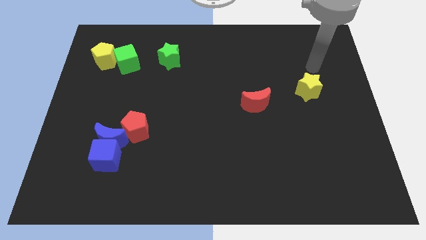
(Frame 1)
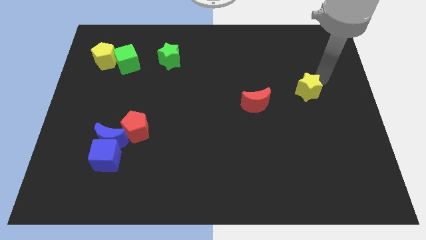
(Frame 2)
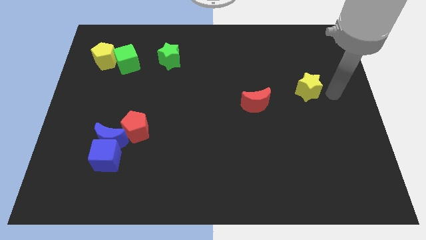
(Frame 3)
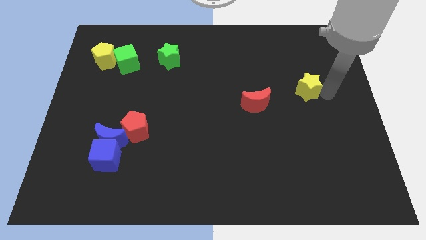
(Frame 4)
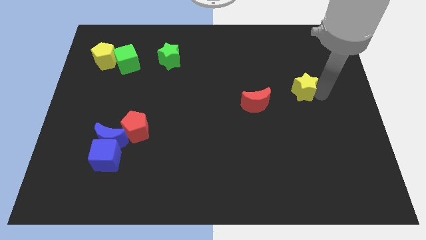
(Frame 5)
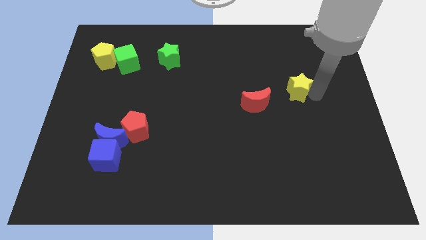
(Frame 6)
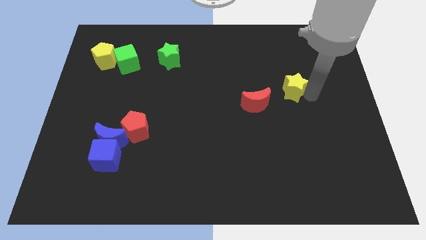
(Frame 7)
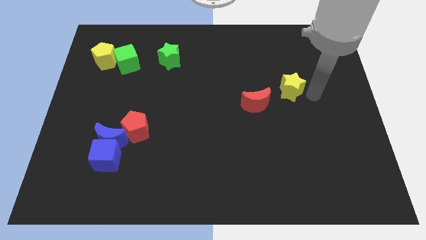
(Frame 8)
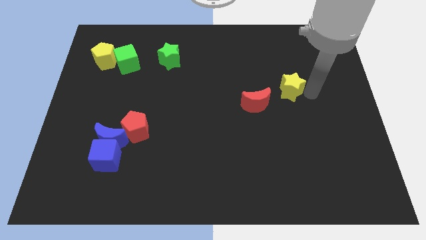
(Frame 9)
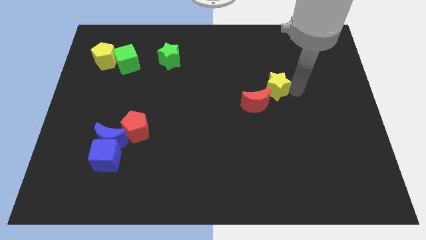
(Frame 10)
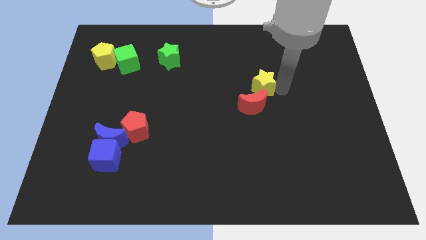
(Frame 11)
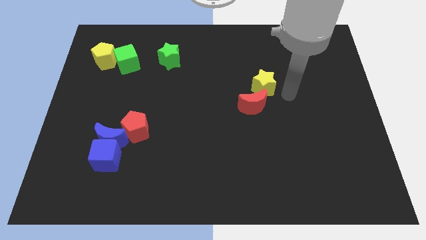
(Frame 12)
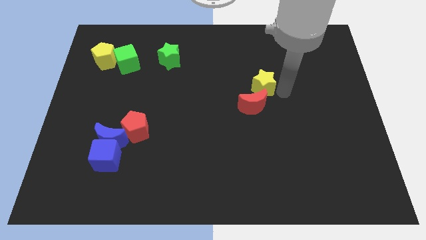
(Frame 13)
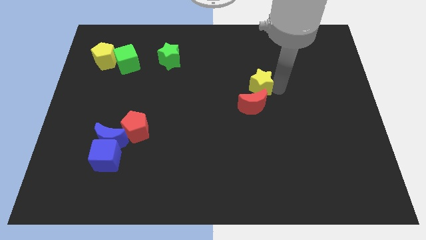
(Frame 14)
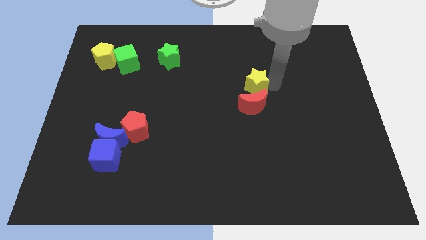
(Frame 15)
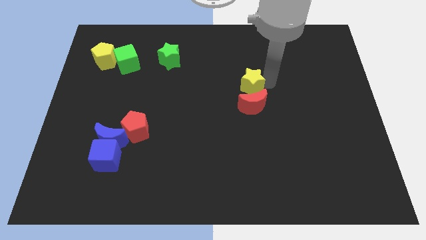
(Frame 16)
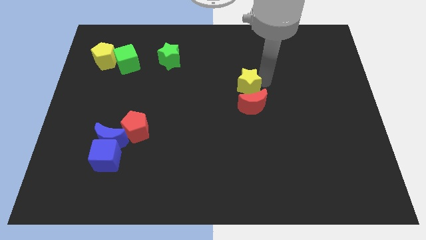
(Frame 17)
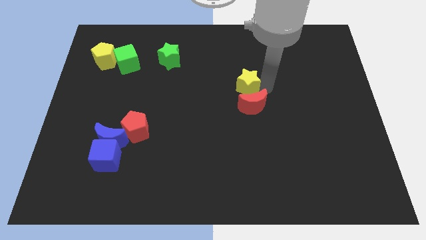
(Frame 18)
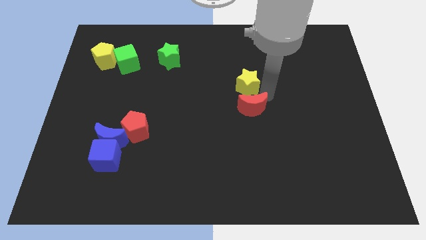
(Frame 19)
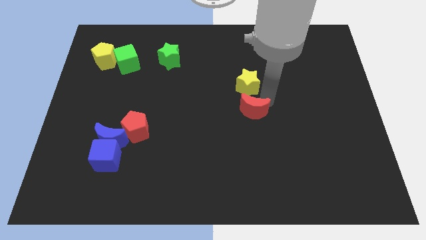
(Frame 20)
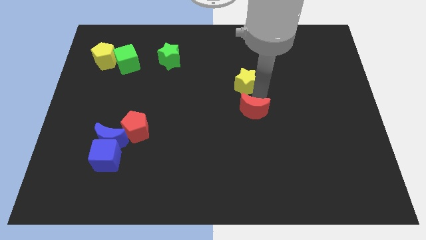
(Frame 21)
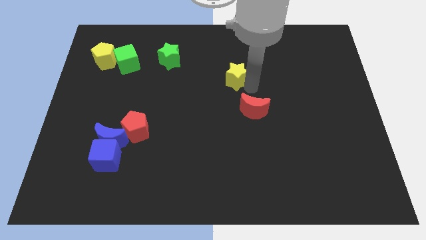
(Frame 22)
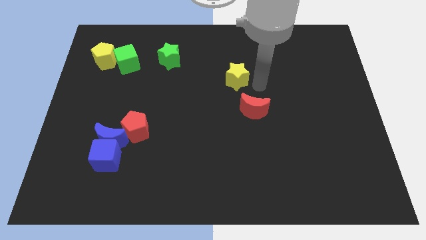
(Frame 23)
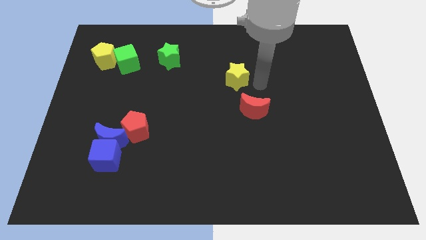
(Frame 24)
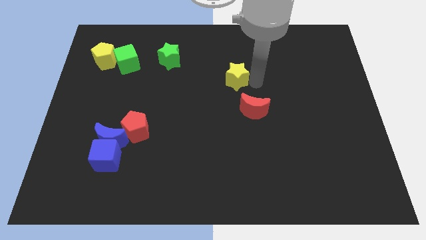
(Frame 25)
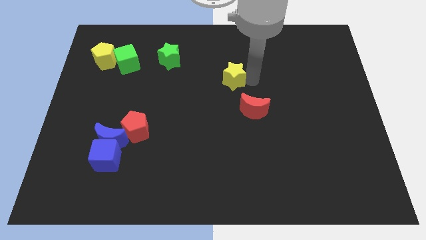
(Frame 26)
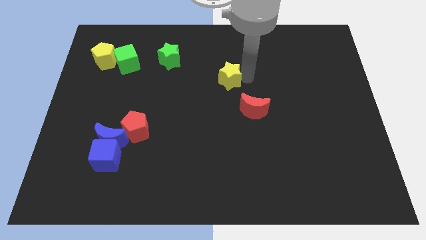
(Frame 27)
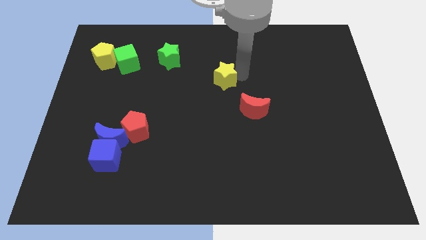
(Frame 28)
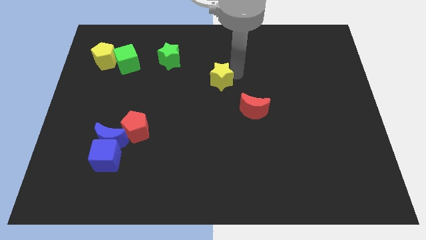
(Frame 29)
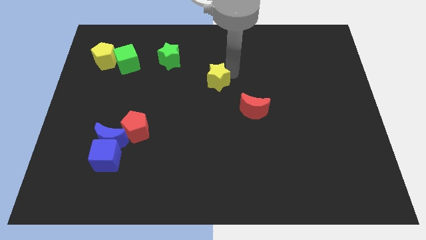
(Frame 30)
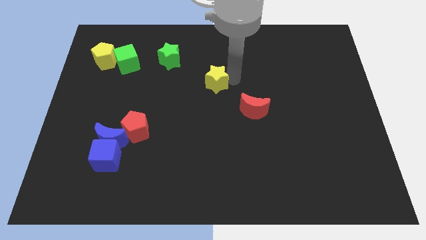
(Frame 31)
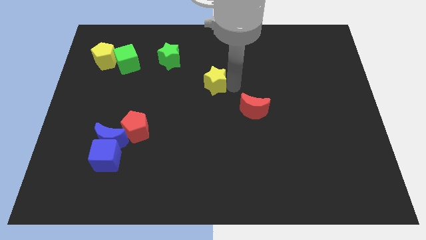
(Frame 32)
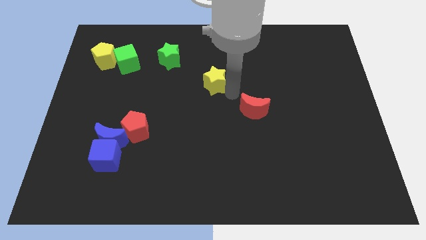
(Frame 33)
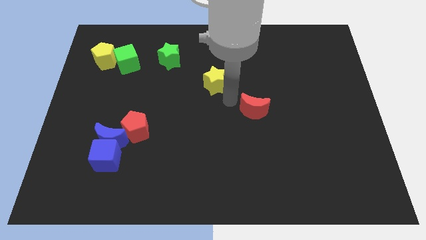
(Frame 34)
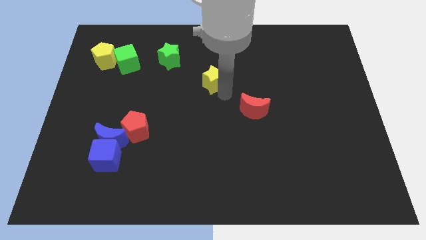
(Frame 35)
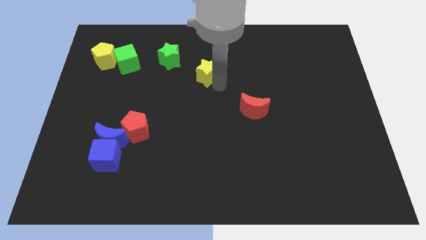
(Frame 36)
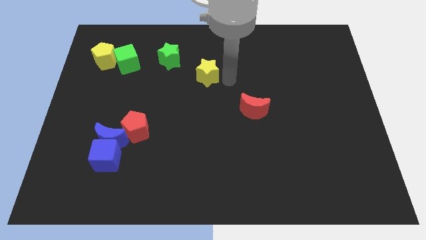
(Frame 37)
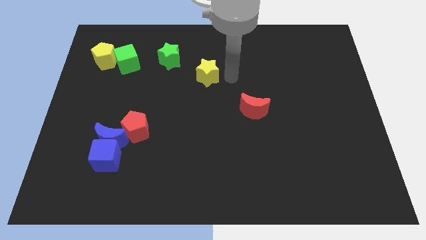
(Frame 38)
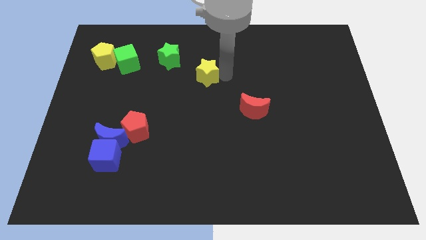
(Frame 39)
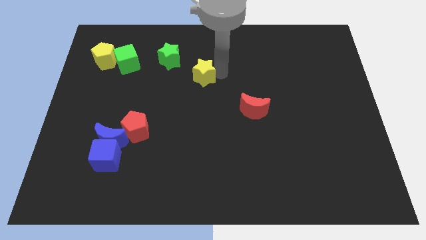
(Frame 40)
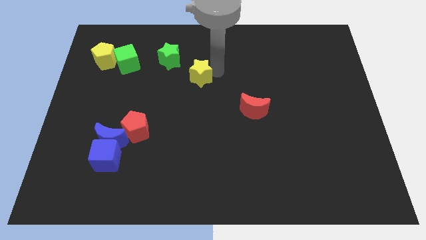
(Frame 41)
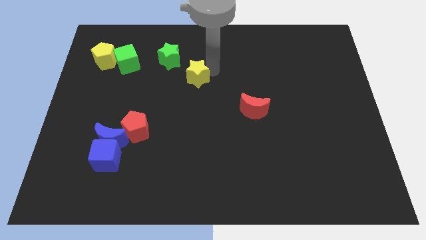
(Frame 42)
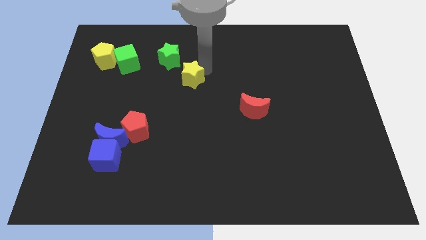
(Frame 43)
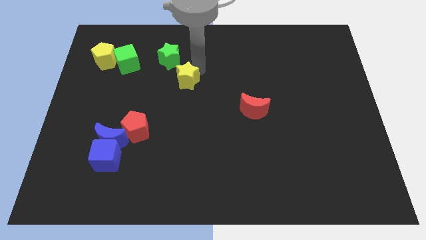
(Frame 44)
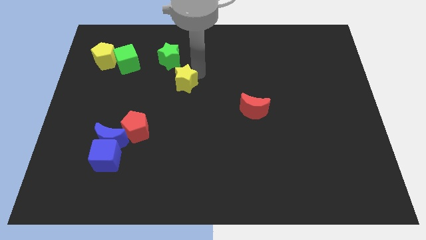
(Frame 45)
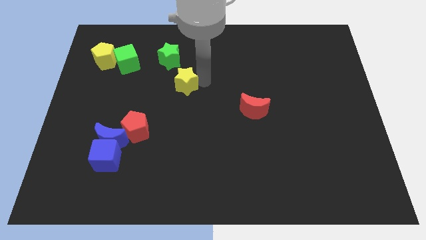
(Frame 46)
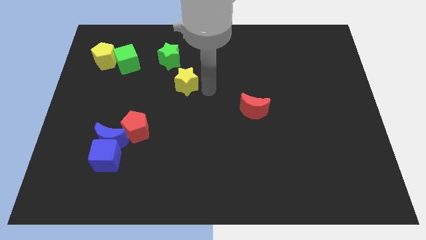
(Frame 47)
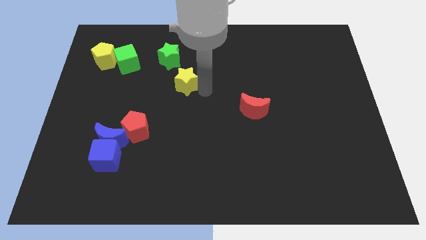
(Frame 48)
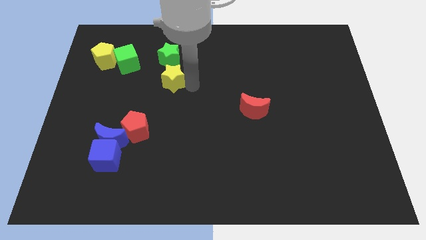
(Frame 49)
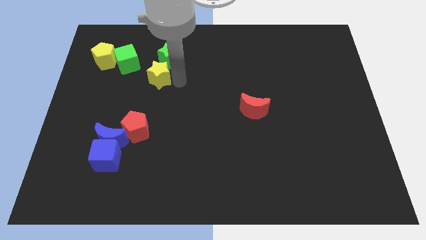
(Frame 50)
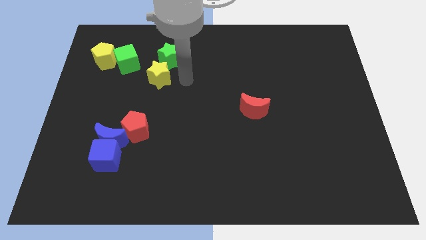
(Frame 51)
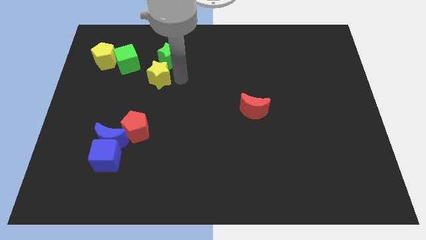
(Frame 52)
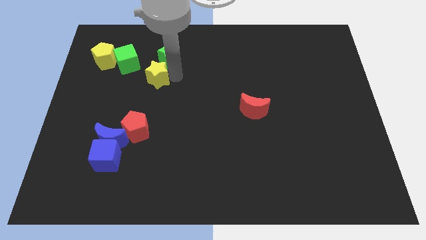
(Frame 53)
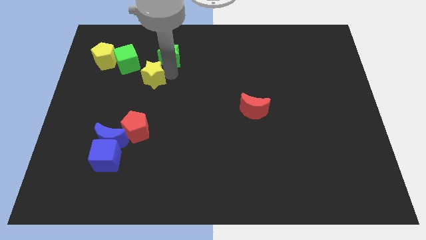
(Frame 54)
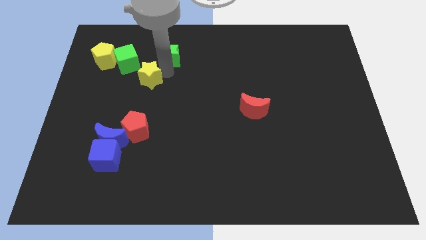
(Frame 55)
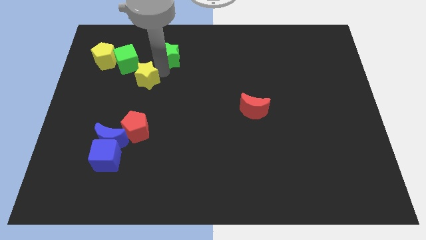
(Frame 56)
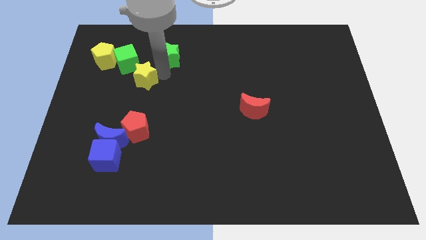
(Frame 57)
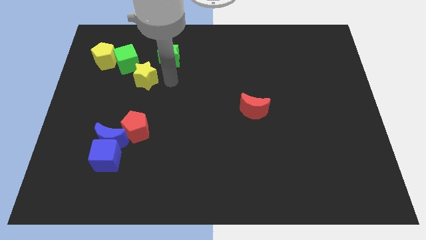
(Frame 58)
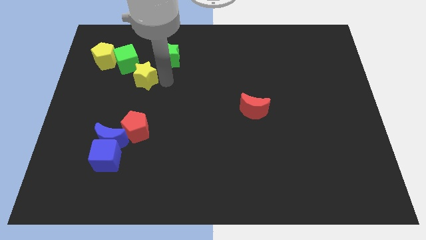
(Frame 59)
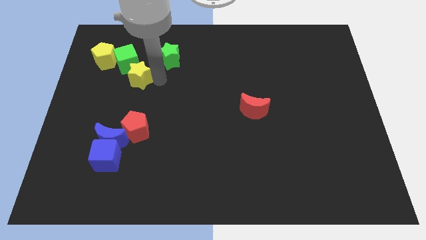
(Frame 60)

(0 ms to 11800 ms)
put the yellow star to the bottom right side of the yellow pentagon

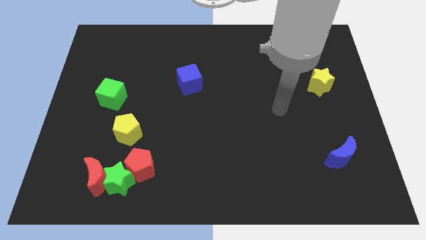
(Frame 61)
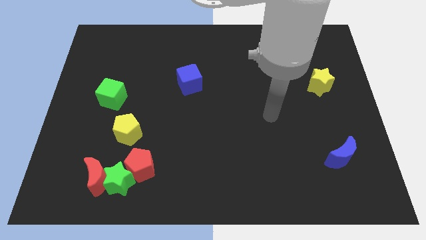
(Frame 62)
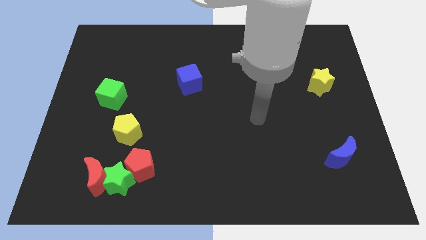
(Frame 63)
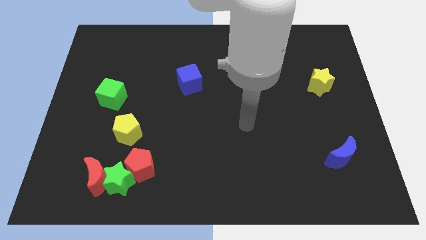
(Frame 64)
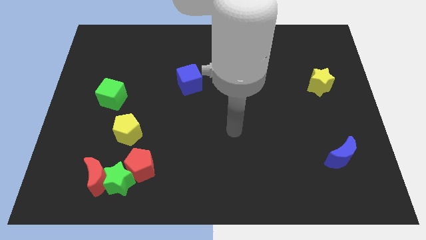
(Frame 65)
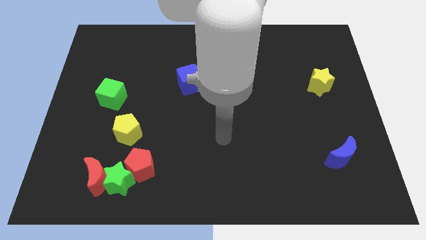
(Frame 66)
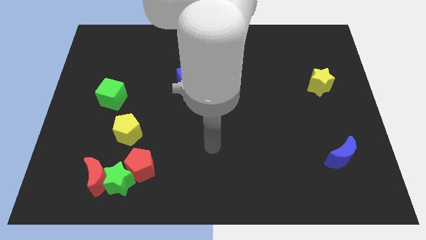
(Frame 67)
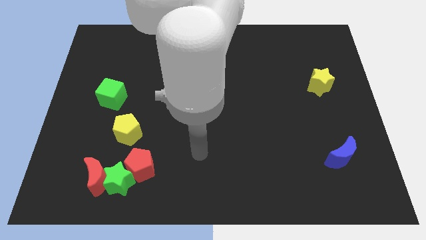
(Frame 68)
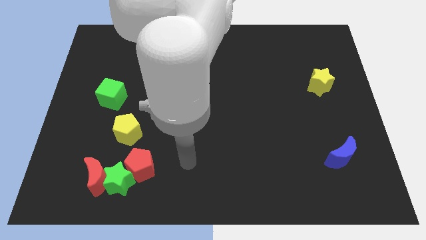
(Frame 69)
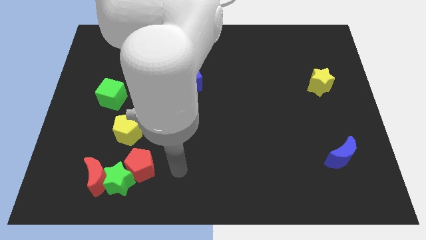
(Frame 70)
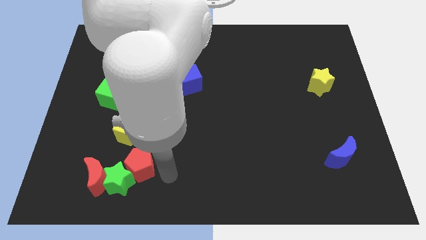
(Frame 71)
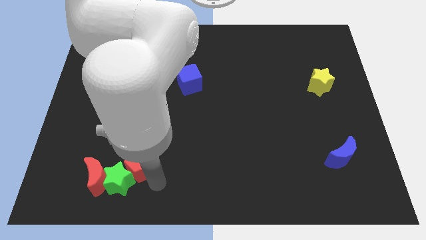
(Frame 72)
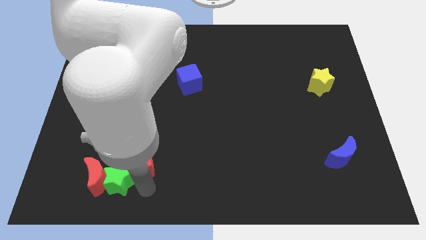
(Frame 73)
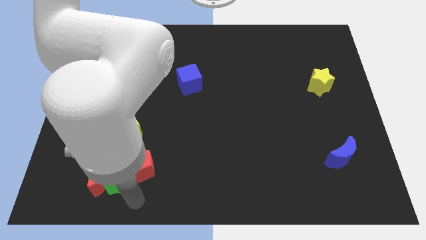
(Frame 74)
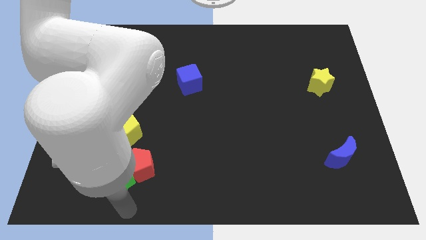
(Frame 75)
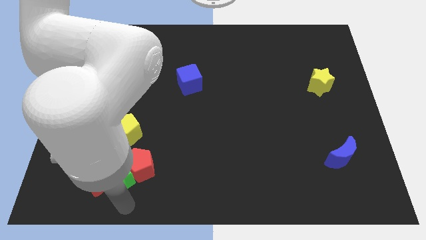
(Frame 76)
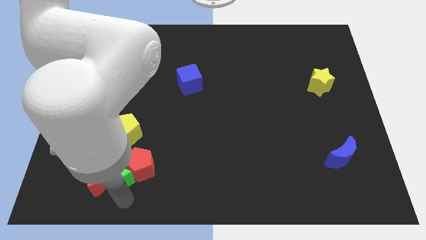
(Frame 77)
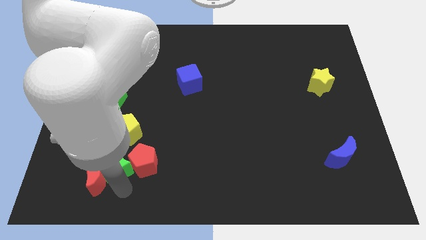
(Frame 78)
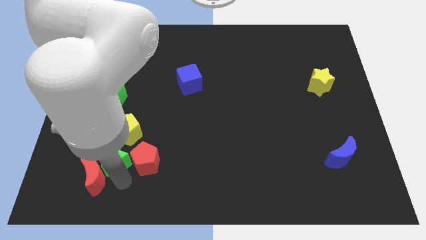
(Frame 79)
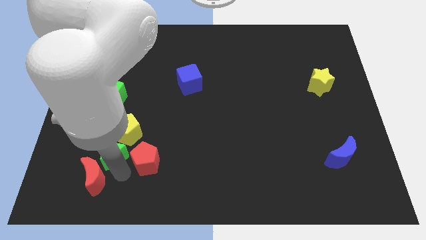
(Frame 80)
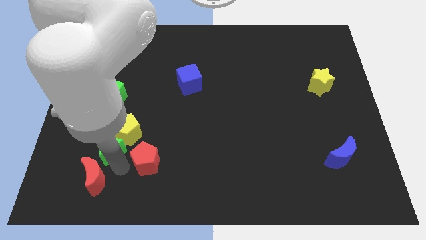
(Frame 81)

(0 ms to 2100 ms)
put the green star below the green cube
